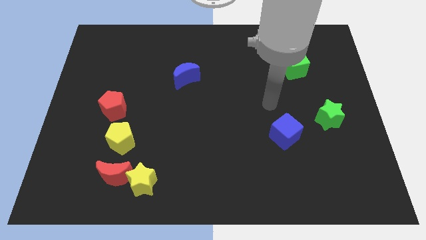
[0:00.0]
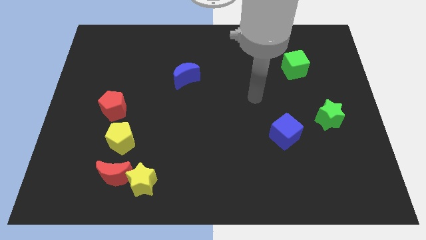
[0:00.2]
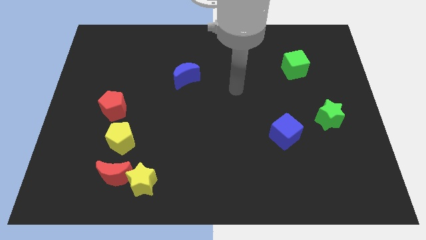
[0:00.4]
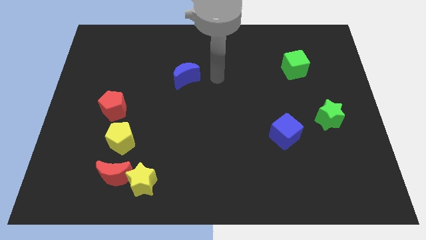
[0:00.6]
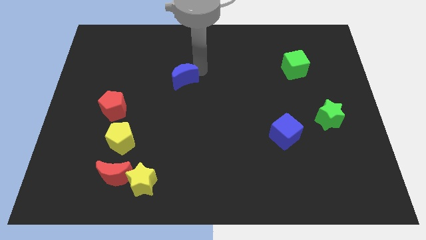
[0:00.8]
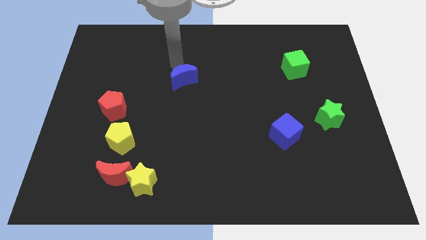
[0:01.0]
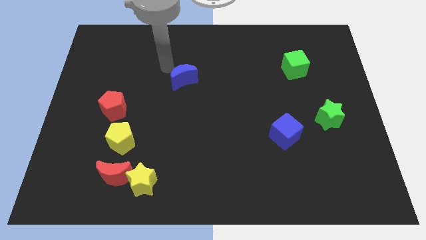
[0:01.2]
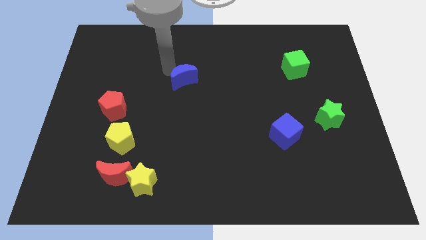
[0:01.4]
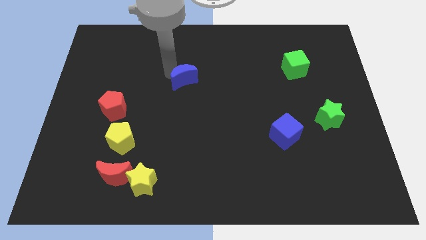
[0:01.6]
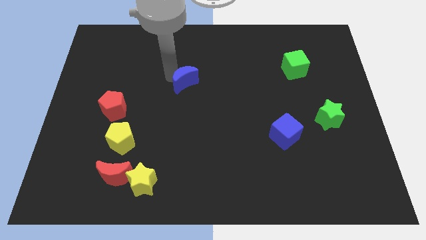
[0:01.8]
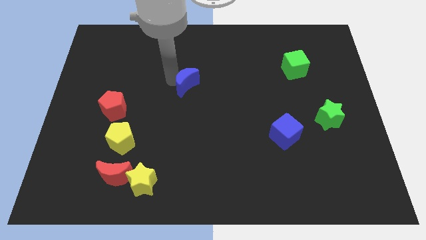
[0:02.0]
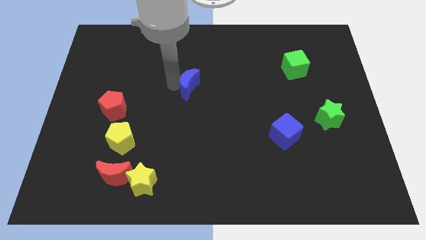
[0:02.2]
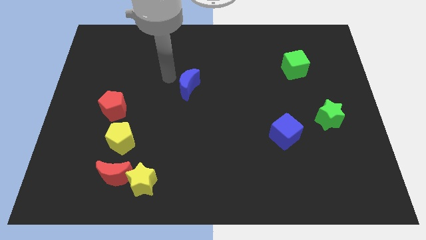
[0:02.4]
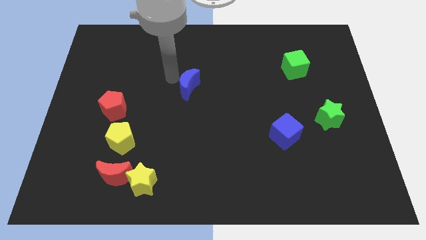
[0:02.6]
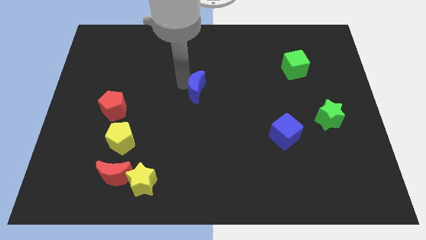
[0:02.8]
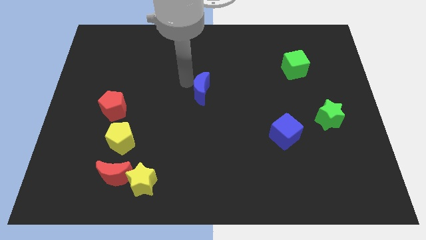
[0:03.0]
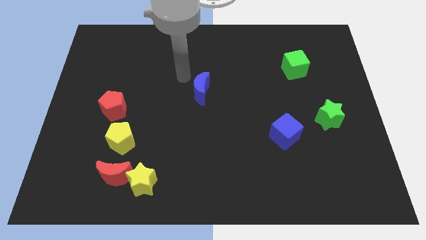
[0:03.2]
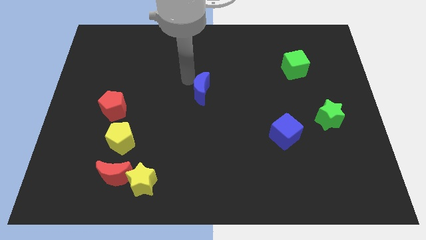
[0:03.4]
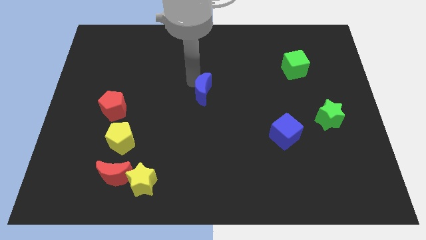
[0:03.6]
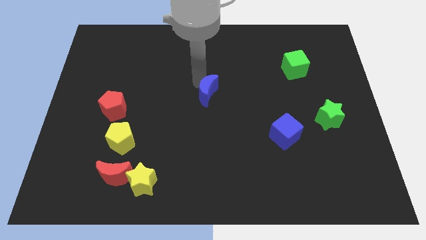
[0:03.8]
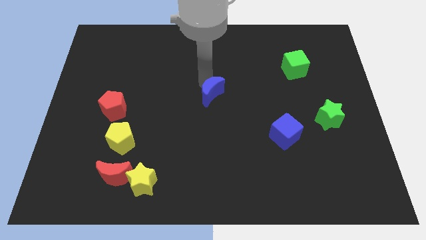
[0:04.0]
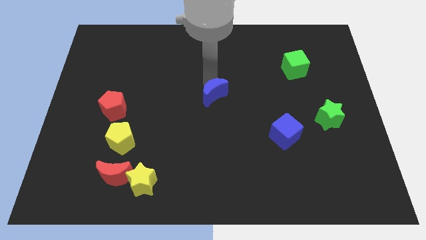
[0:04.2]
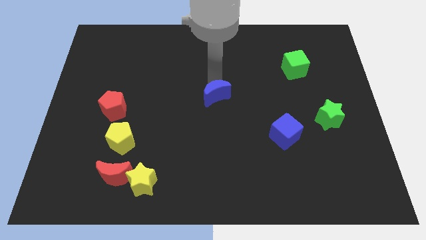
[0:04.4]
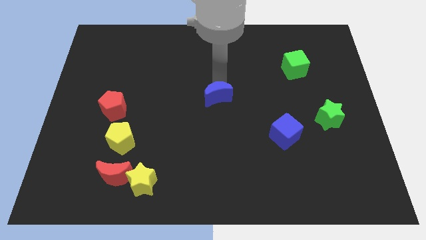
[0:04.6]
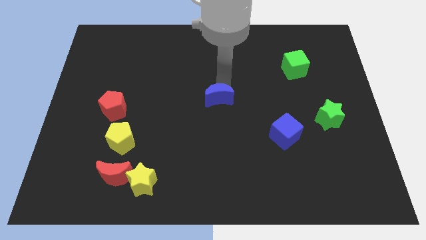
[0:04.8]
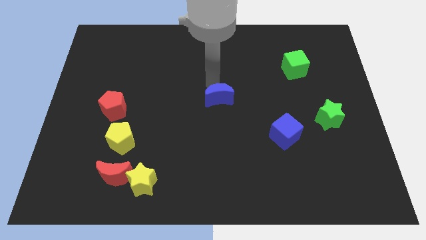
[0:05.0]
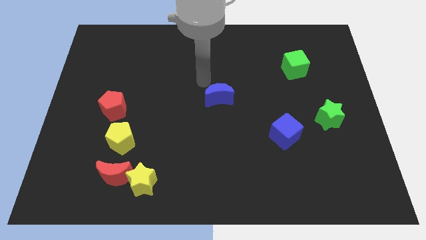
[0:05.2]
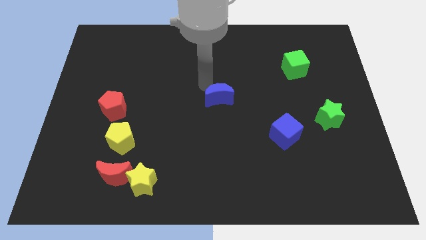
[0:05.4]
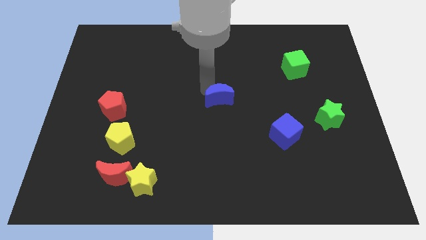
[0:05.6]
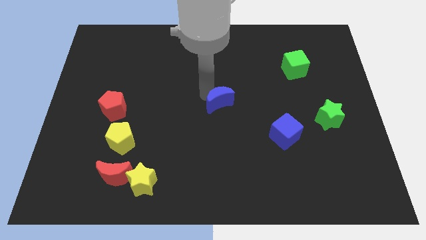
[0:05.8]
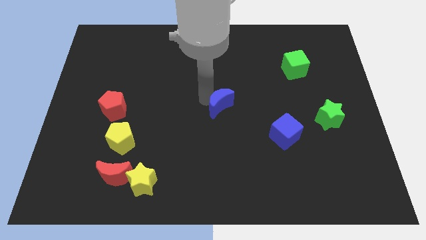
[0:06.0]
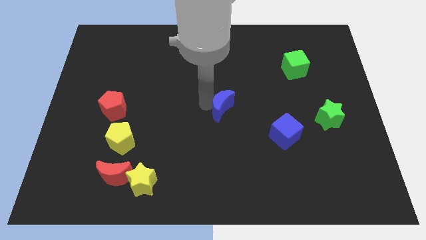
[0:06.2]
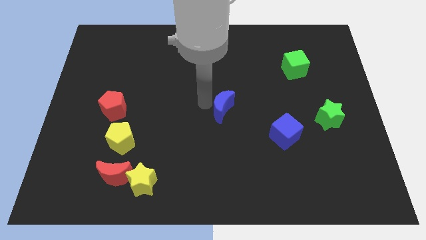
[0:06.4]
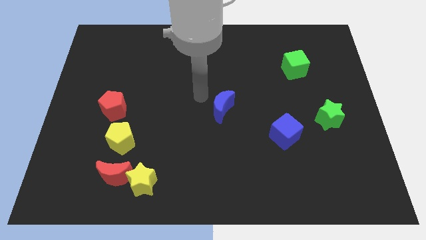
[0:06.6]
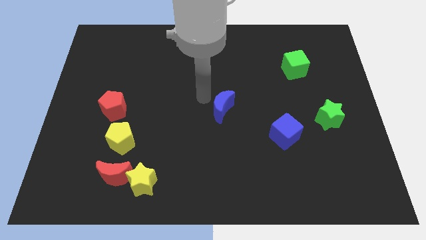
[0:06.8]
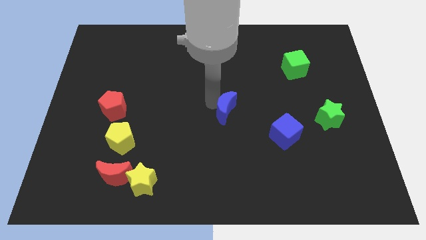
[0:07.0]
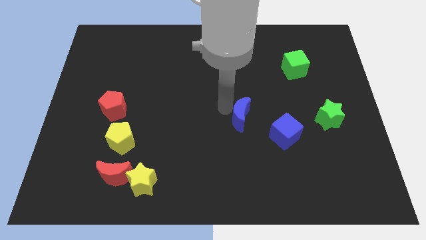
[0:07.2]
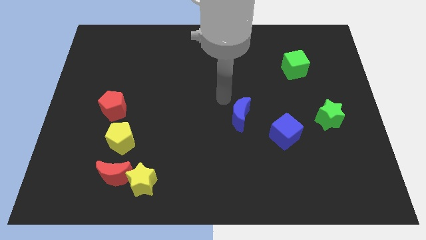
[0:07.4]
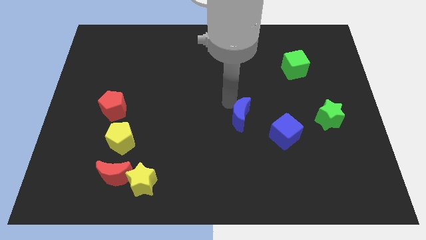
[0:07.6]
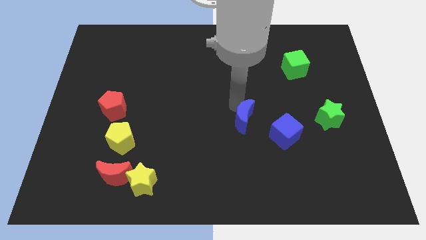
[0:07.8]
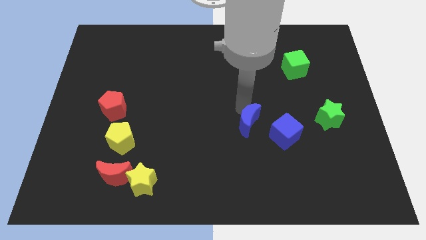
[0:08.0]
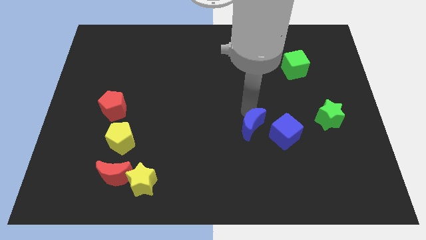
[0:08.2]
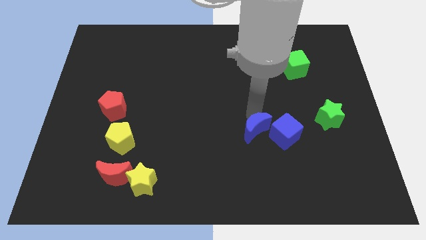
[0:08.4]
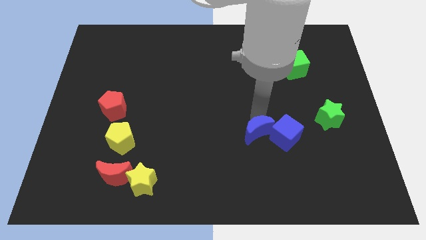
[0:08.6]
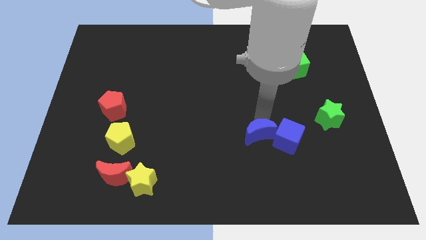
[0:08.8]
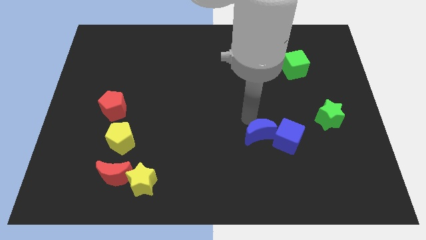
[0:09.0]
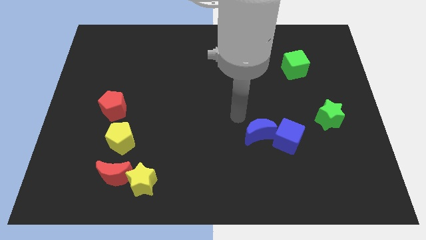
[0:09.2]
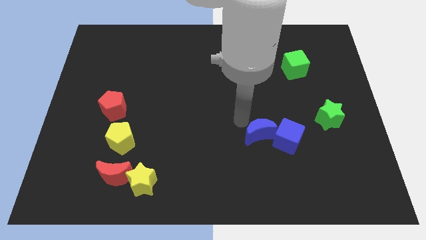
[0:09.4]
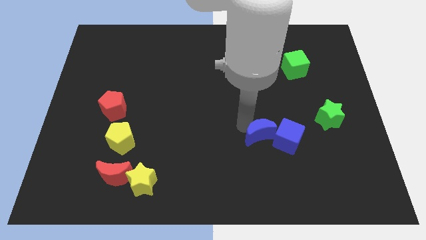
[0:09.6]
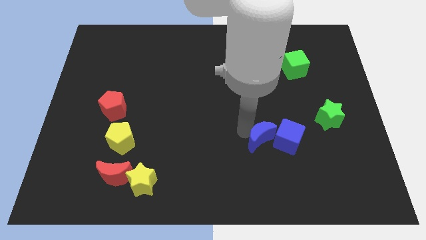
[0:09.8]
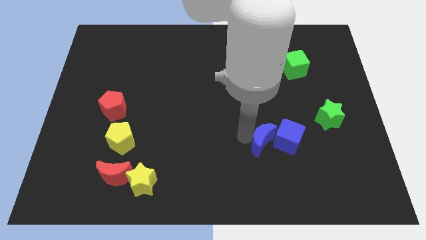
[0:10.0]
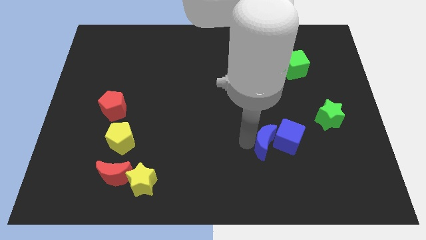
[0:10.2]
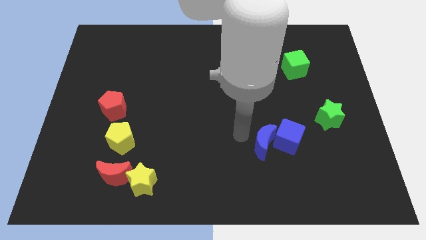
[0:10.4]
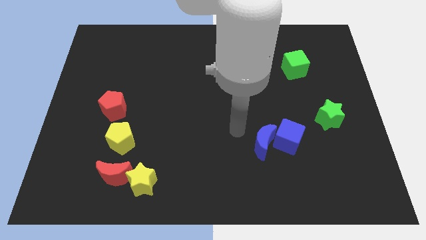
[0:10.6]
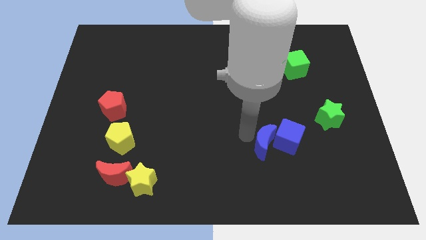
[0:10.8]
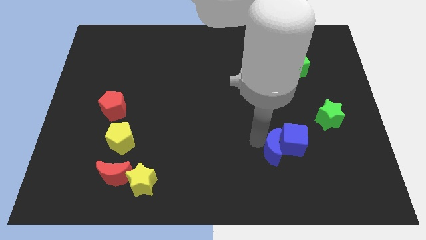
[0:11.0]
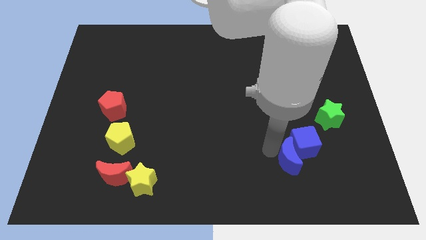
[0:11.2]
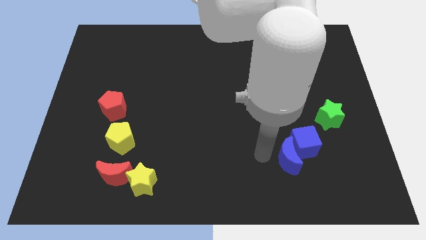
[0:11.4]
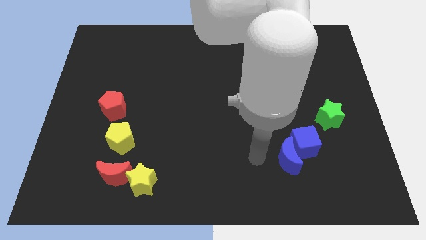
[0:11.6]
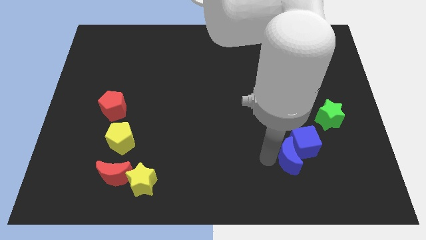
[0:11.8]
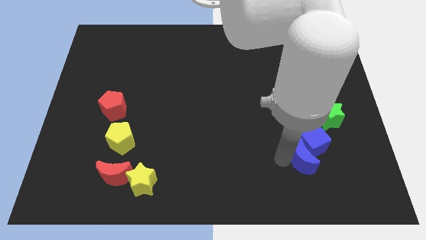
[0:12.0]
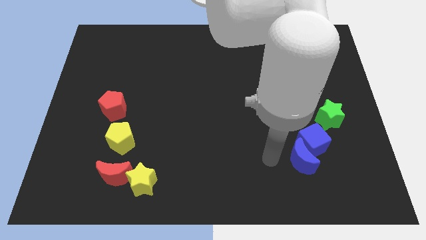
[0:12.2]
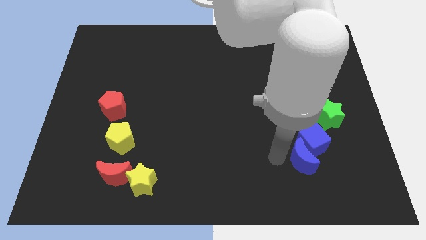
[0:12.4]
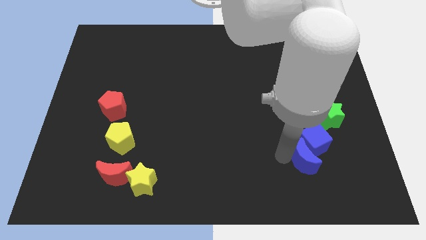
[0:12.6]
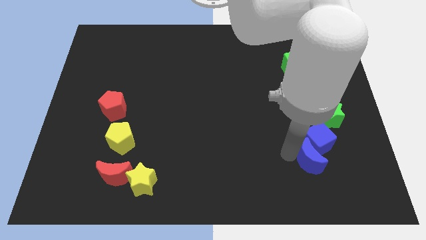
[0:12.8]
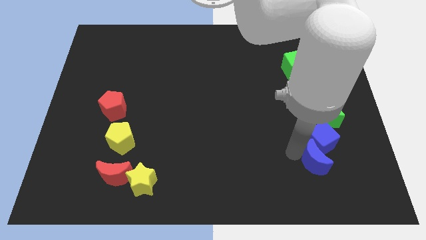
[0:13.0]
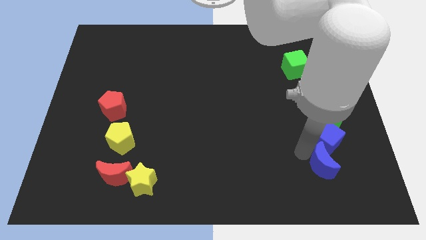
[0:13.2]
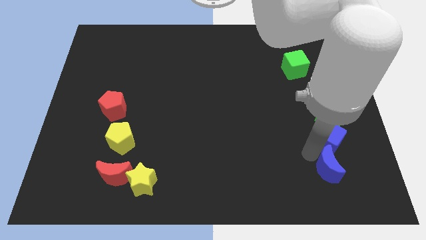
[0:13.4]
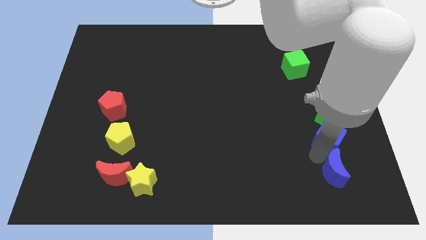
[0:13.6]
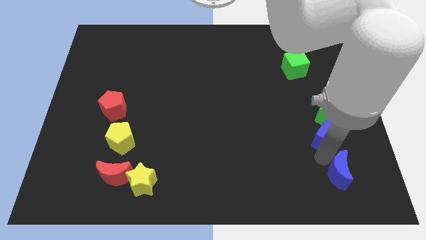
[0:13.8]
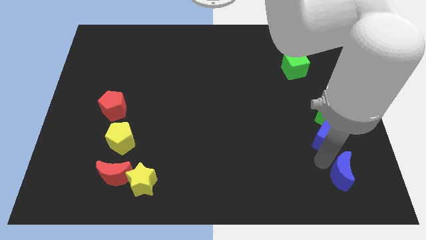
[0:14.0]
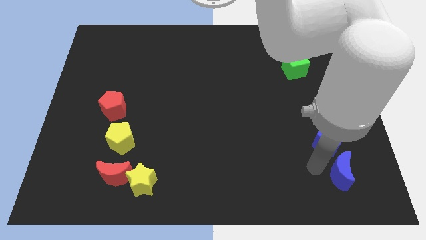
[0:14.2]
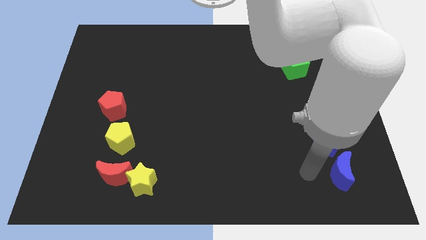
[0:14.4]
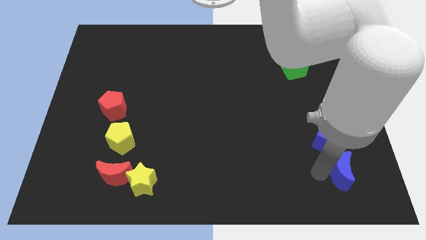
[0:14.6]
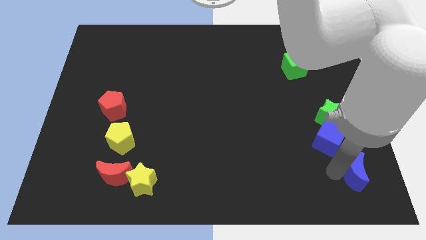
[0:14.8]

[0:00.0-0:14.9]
slide the blue moon to the lower right corner

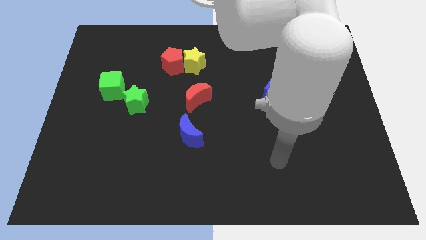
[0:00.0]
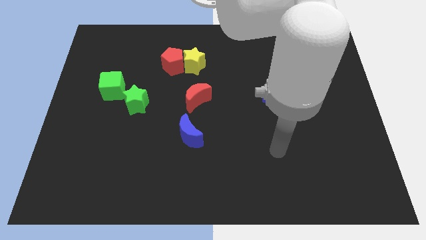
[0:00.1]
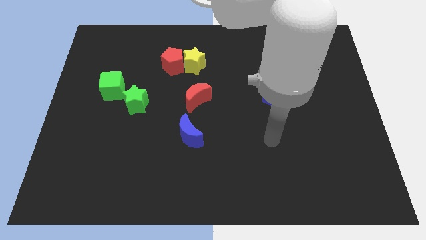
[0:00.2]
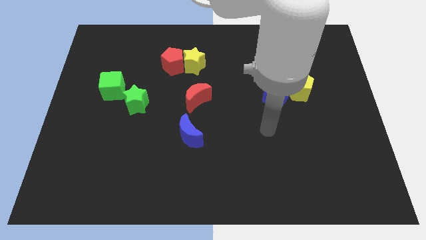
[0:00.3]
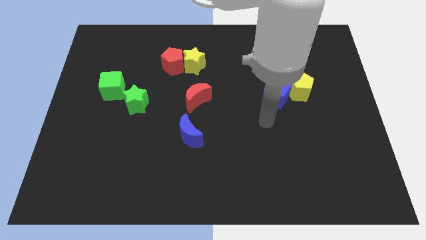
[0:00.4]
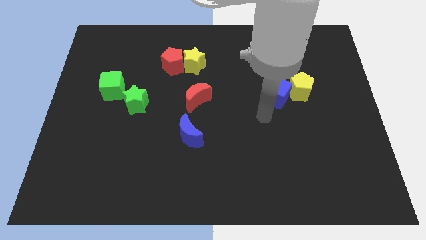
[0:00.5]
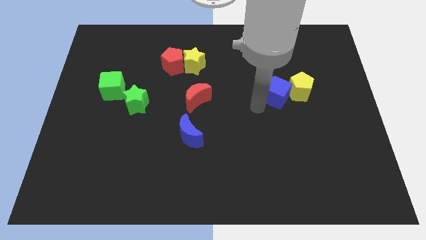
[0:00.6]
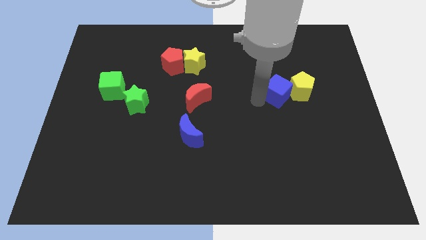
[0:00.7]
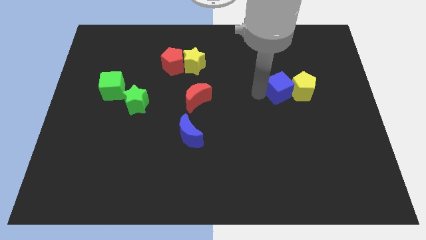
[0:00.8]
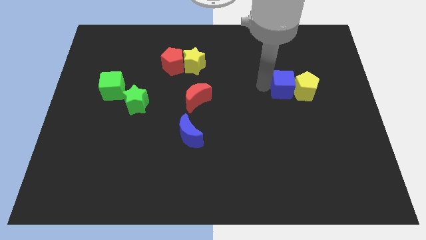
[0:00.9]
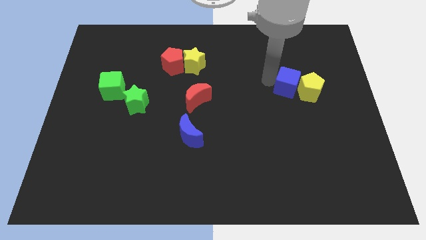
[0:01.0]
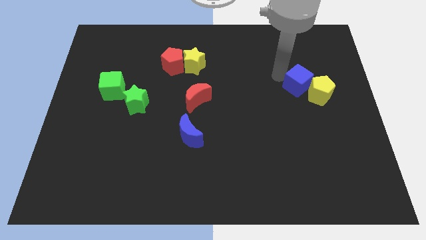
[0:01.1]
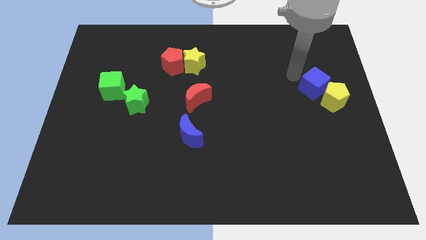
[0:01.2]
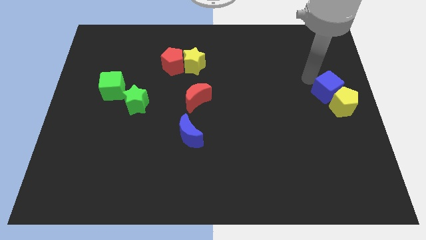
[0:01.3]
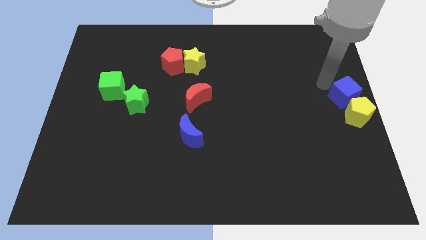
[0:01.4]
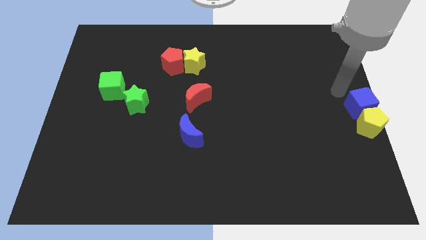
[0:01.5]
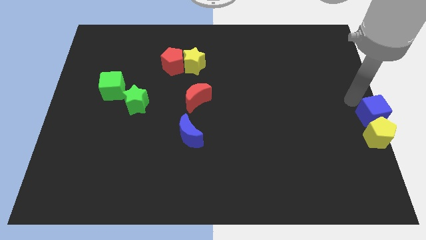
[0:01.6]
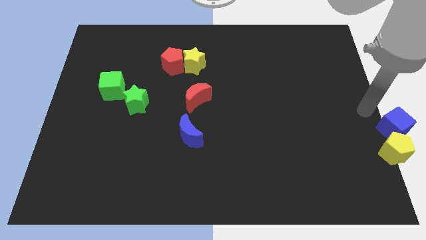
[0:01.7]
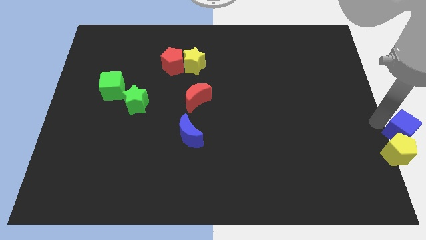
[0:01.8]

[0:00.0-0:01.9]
put the yellow pentagon to the bottom right corner
